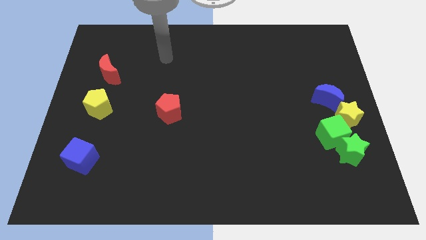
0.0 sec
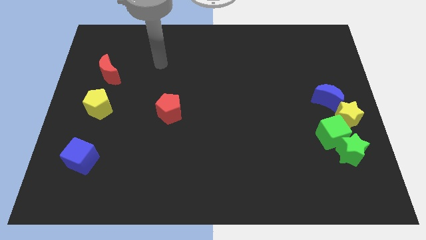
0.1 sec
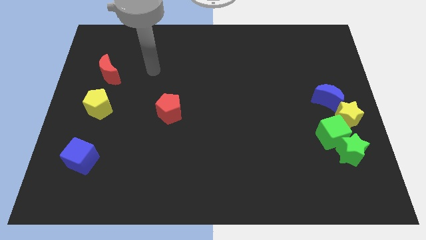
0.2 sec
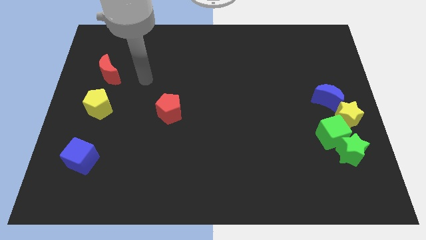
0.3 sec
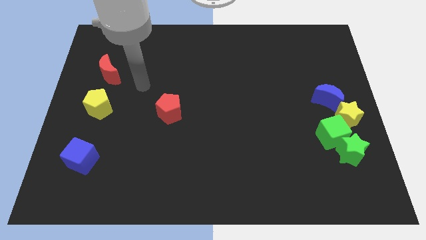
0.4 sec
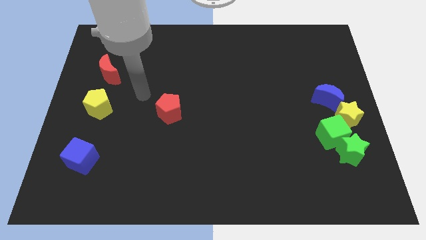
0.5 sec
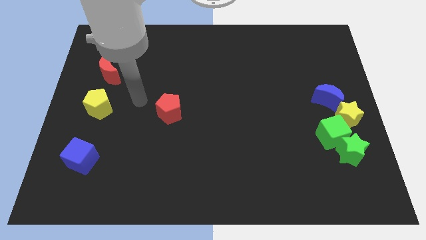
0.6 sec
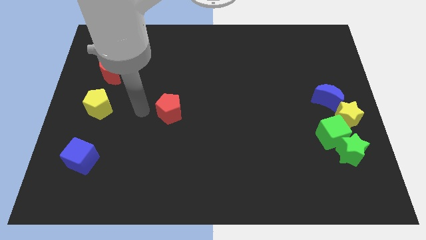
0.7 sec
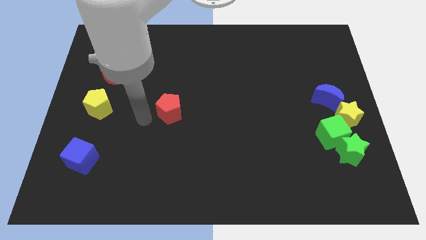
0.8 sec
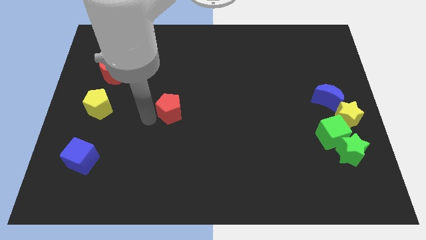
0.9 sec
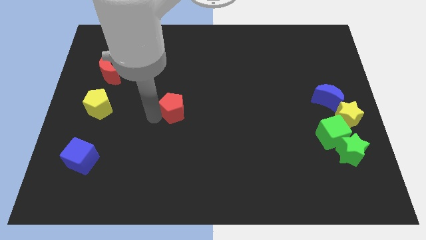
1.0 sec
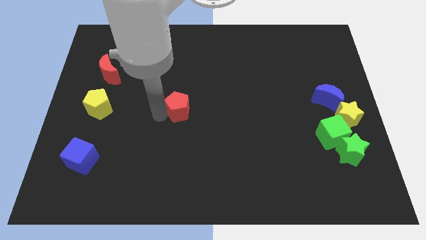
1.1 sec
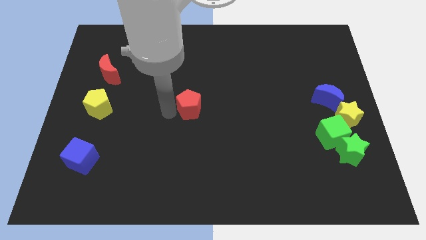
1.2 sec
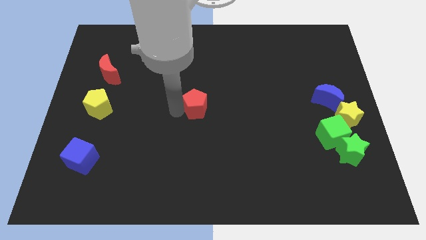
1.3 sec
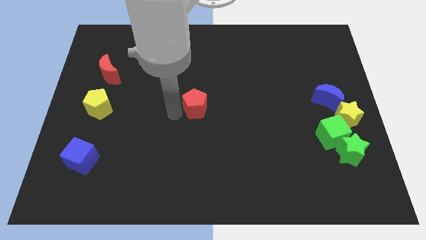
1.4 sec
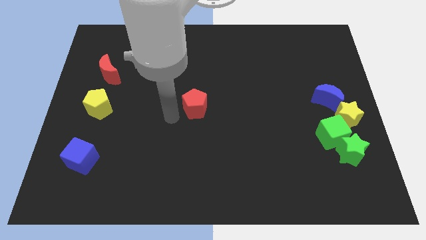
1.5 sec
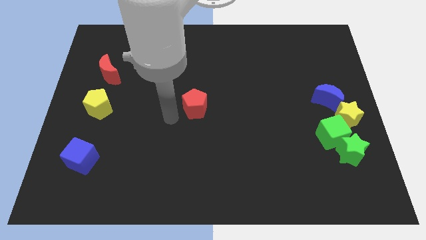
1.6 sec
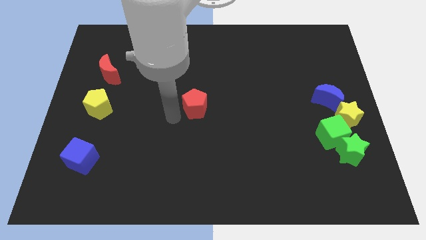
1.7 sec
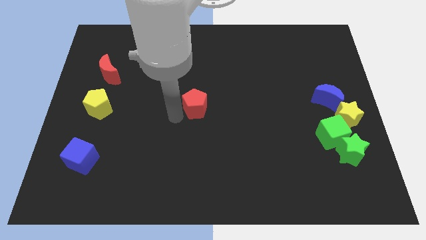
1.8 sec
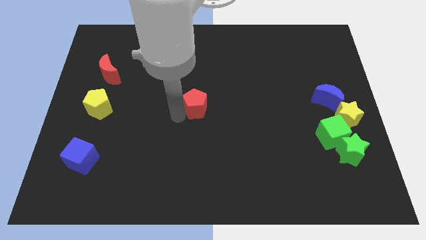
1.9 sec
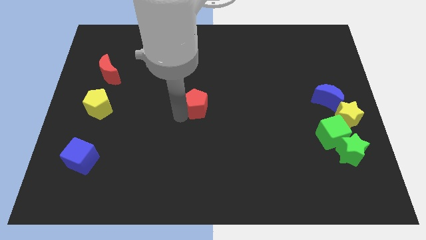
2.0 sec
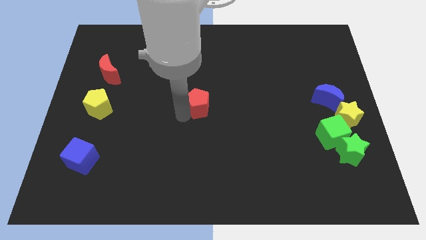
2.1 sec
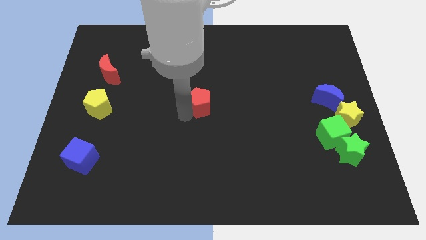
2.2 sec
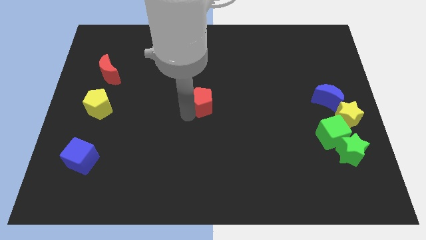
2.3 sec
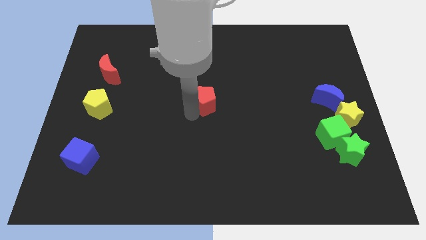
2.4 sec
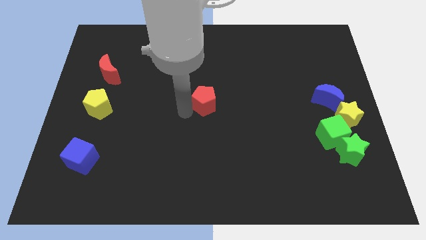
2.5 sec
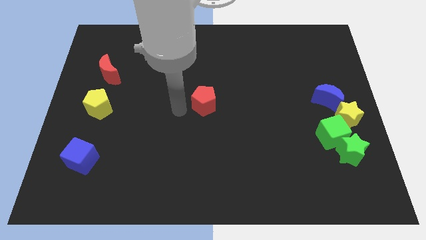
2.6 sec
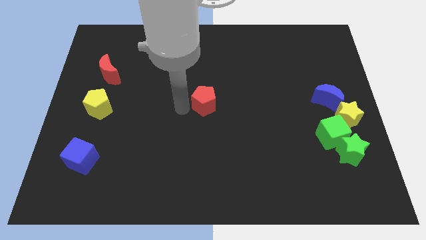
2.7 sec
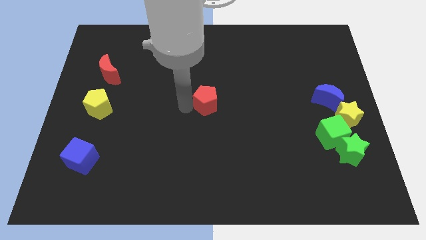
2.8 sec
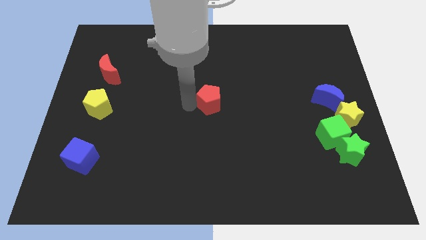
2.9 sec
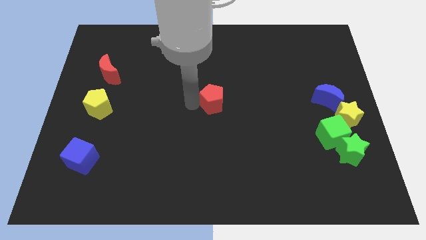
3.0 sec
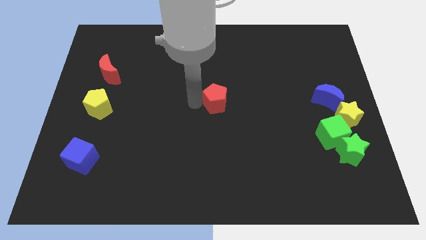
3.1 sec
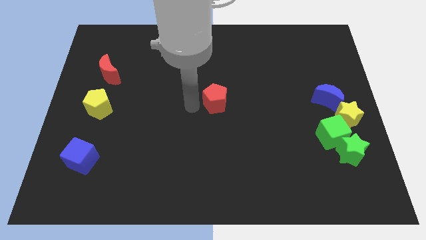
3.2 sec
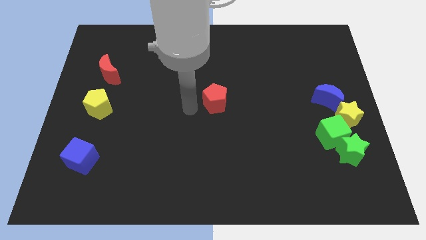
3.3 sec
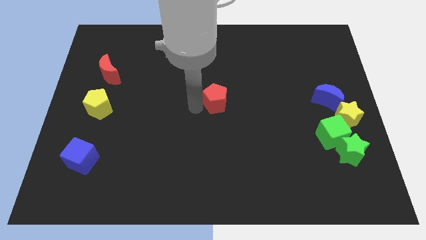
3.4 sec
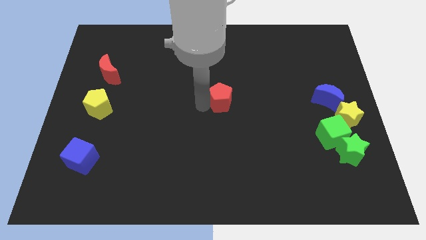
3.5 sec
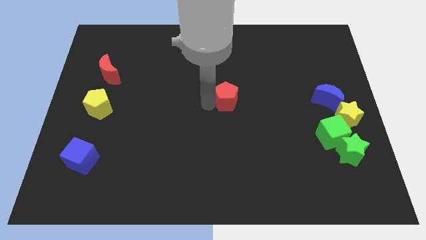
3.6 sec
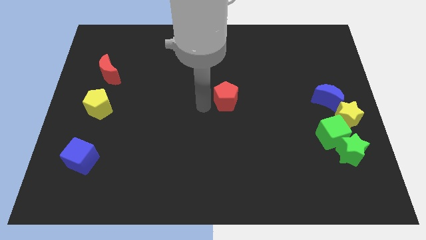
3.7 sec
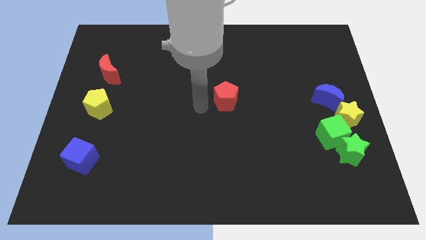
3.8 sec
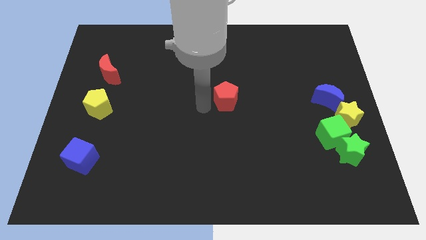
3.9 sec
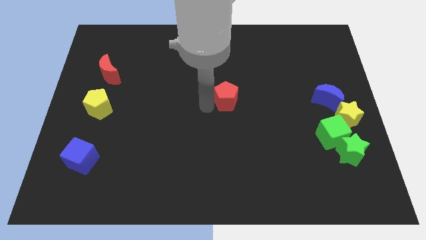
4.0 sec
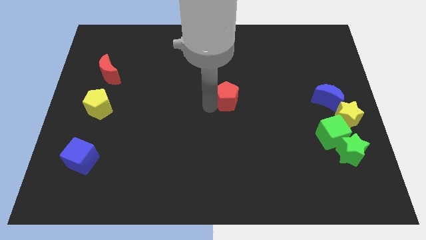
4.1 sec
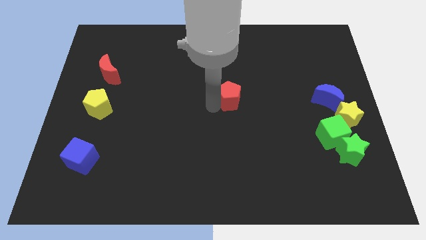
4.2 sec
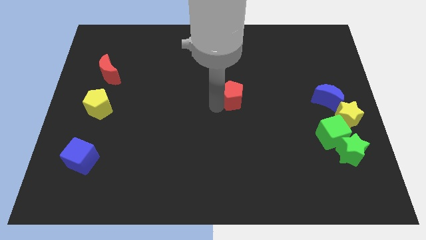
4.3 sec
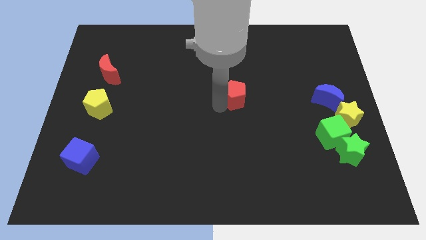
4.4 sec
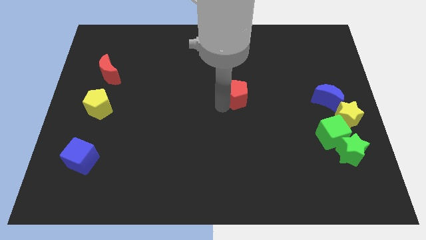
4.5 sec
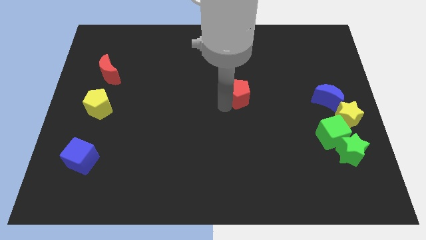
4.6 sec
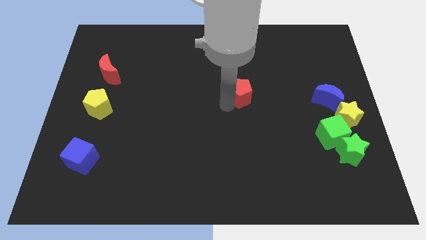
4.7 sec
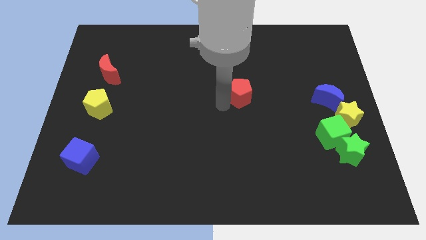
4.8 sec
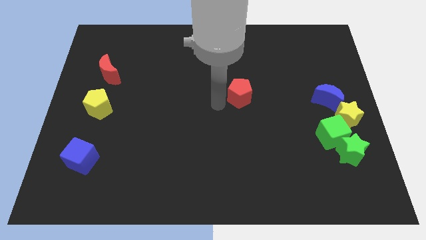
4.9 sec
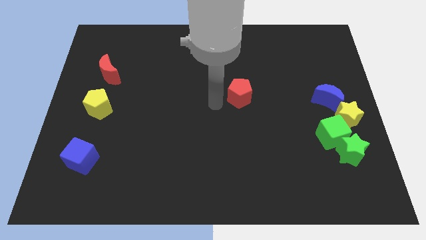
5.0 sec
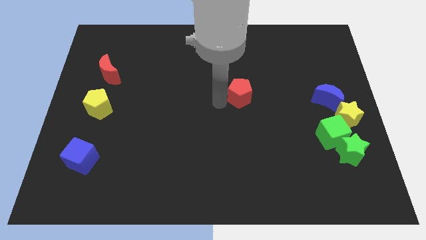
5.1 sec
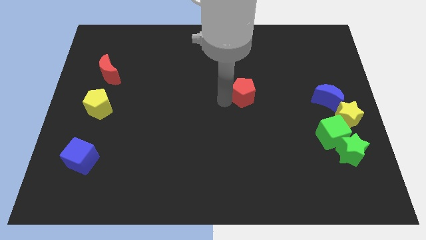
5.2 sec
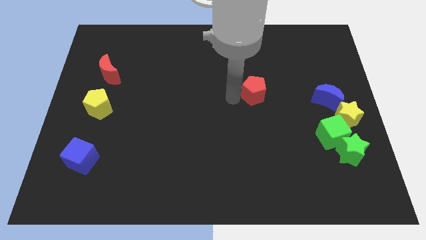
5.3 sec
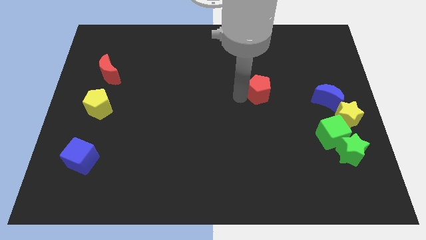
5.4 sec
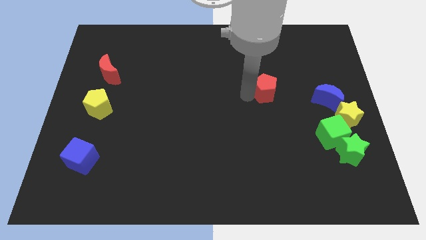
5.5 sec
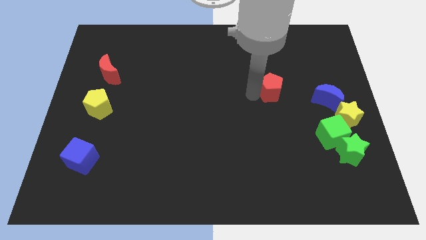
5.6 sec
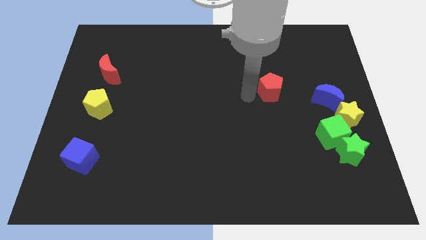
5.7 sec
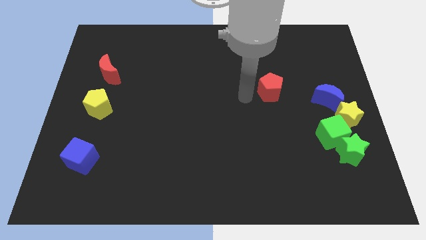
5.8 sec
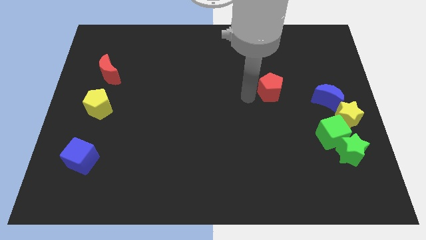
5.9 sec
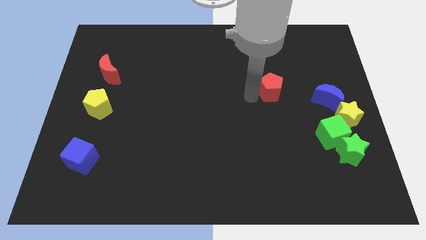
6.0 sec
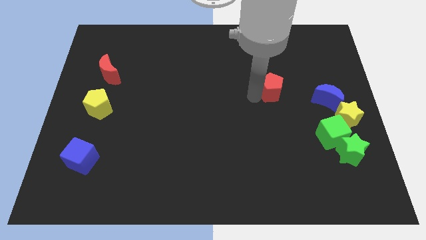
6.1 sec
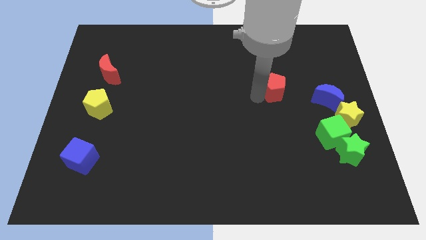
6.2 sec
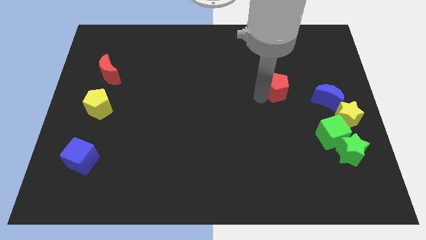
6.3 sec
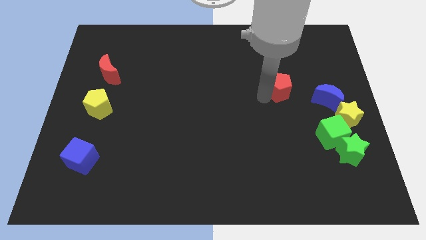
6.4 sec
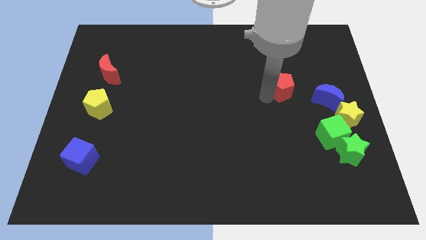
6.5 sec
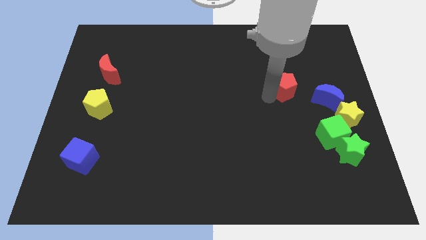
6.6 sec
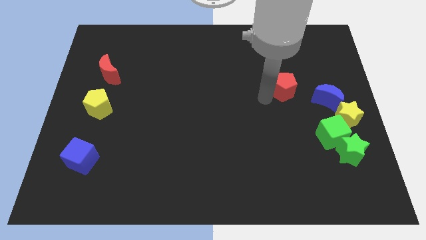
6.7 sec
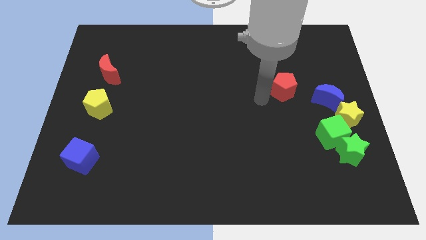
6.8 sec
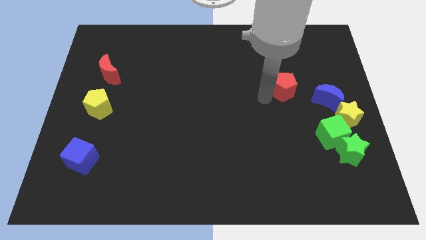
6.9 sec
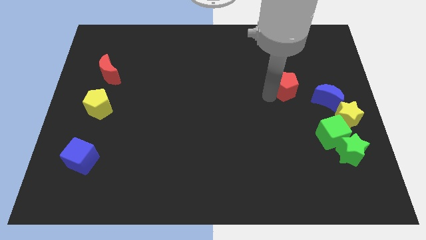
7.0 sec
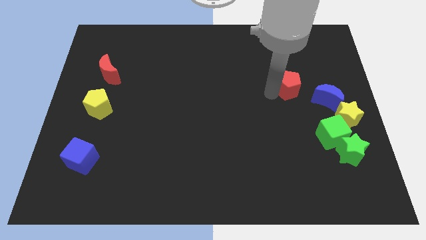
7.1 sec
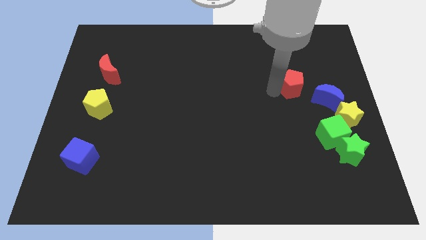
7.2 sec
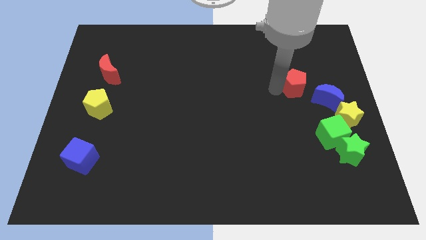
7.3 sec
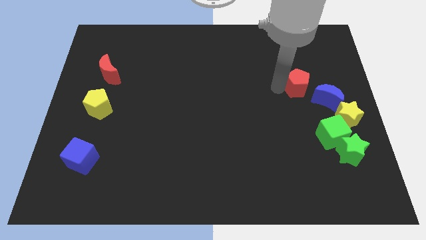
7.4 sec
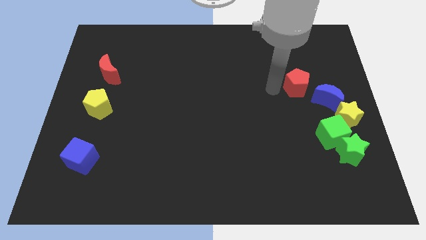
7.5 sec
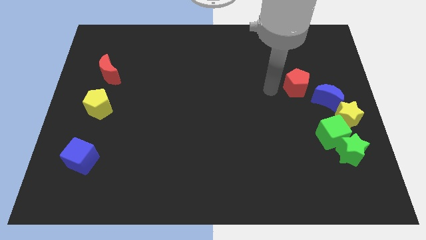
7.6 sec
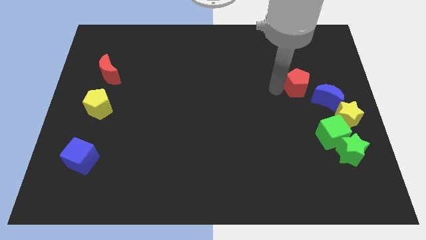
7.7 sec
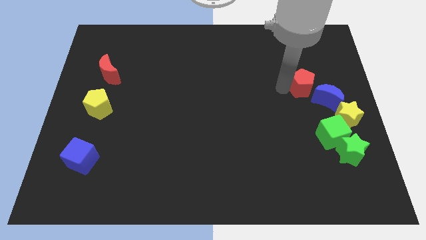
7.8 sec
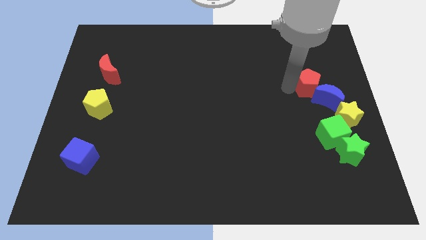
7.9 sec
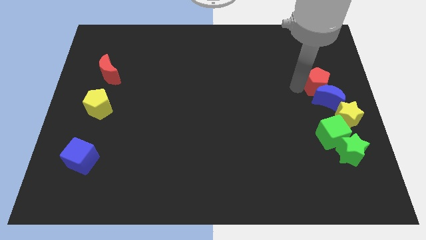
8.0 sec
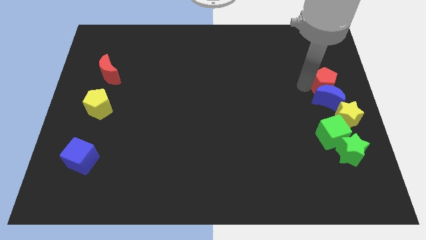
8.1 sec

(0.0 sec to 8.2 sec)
slide the red pentagon to the right side of the board
